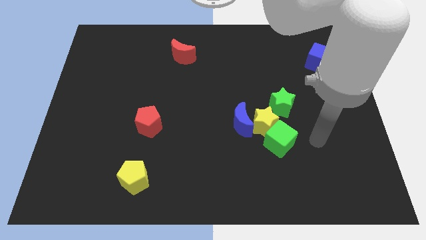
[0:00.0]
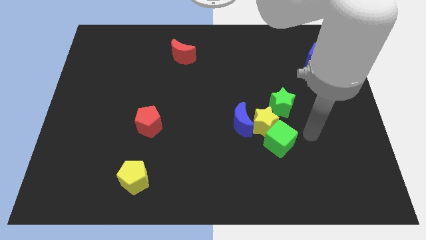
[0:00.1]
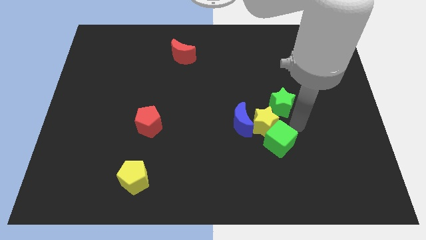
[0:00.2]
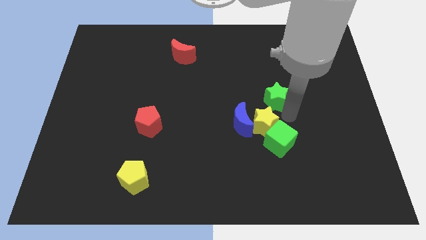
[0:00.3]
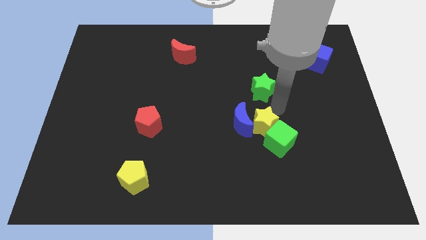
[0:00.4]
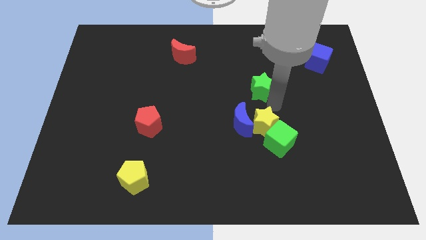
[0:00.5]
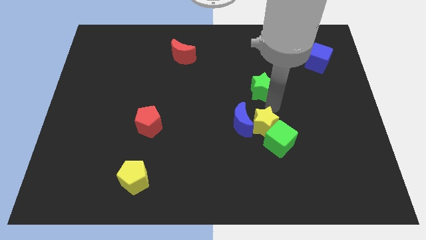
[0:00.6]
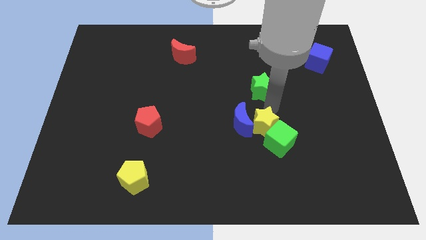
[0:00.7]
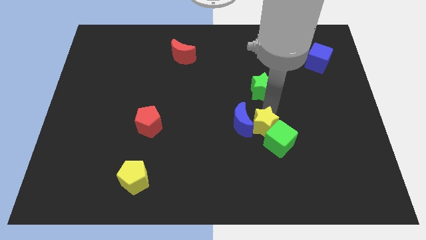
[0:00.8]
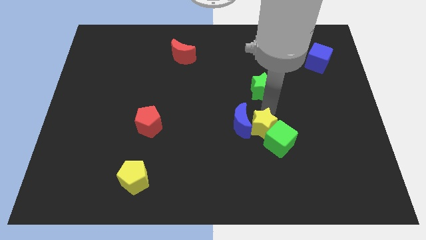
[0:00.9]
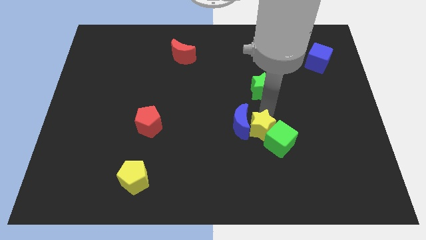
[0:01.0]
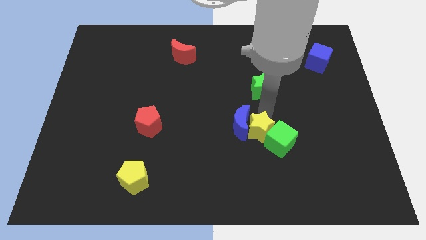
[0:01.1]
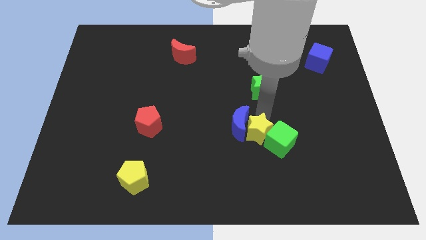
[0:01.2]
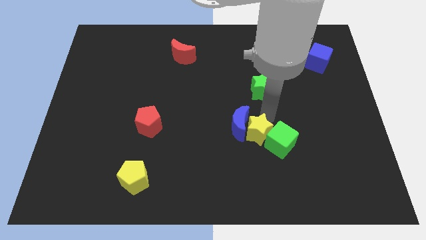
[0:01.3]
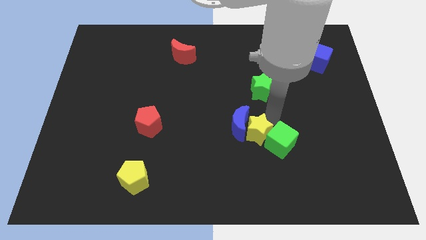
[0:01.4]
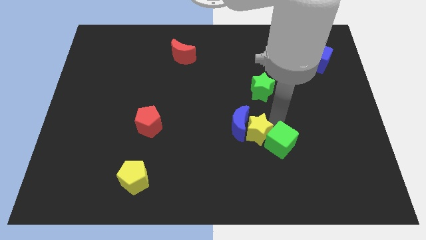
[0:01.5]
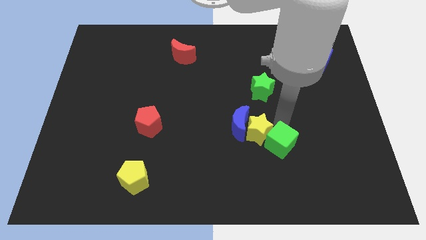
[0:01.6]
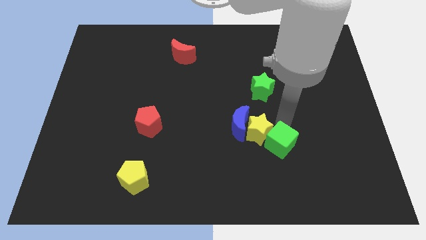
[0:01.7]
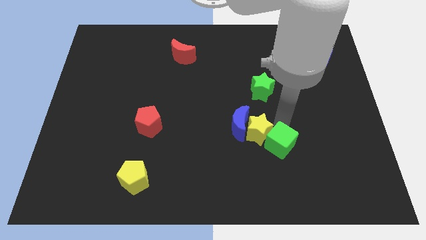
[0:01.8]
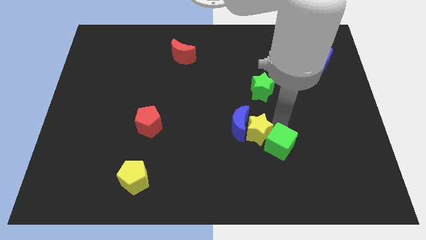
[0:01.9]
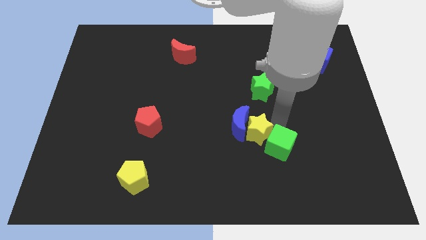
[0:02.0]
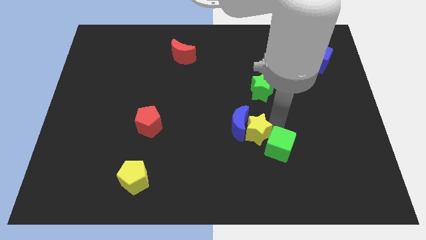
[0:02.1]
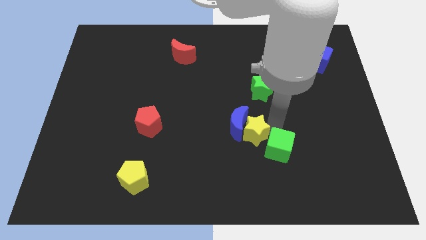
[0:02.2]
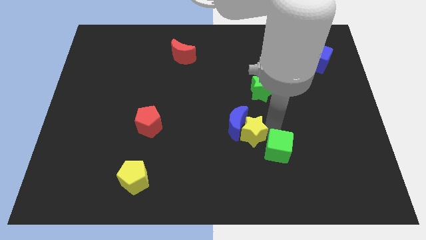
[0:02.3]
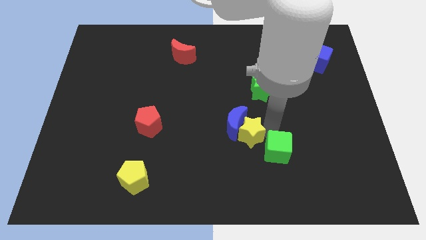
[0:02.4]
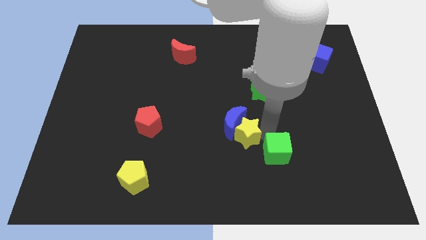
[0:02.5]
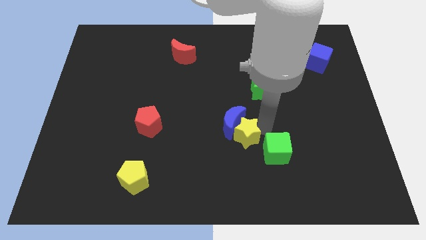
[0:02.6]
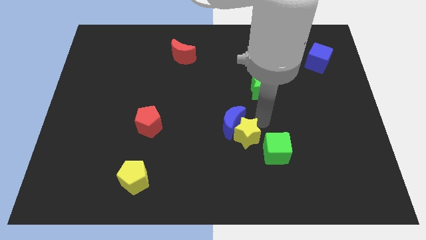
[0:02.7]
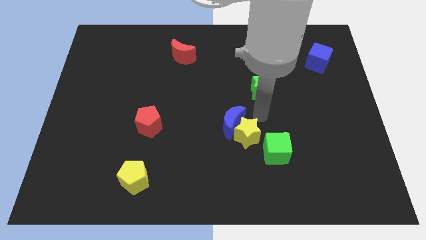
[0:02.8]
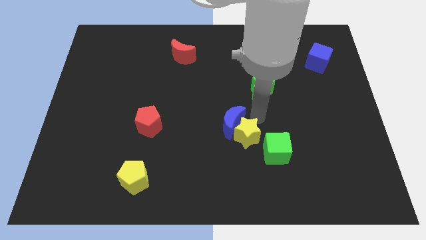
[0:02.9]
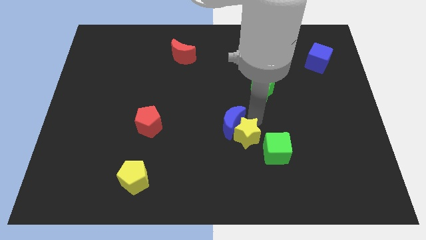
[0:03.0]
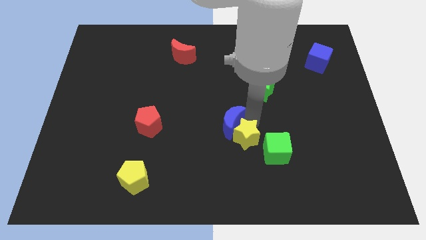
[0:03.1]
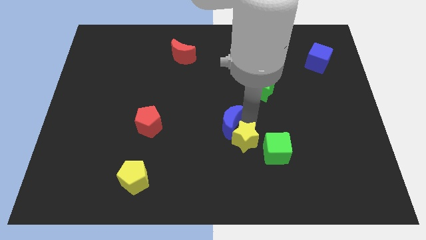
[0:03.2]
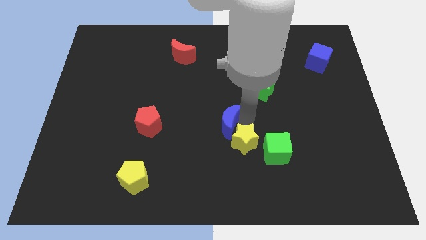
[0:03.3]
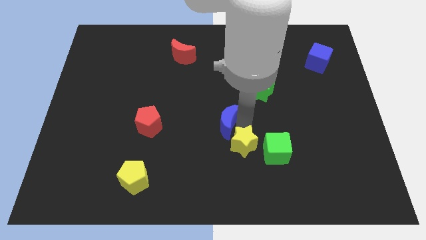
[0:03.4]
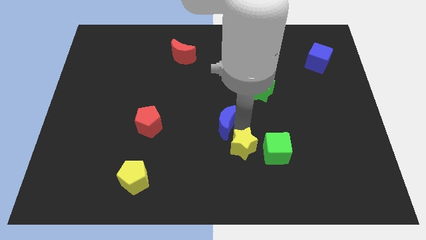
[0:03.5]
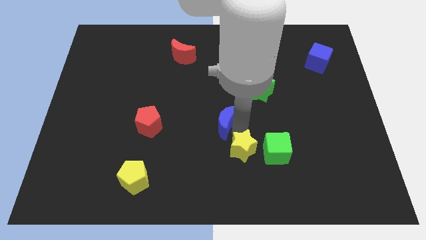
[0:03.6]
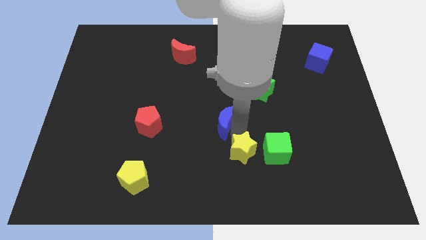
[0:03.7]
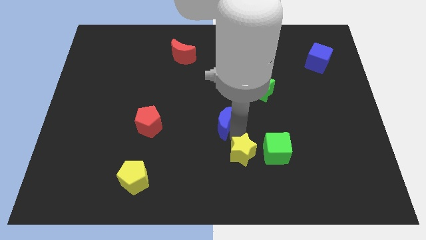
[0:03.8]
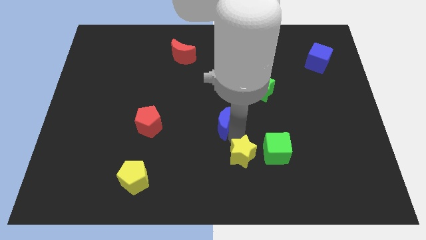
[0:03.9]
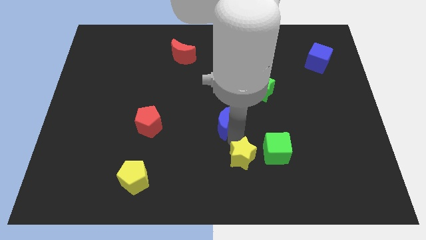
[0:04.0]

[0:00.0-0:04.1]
separate the yellow star from the blue moon, green cube, and green star

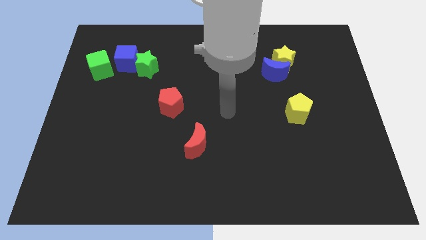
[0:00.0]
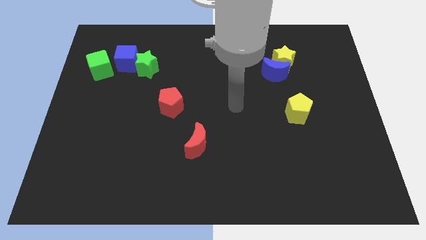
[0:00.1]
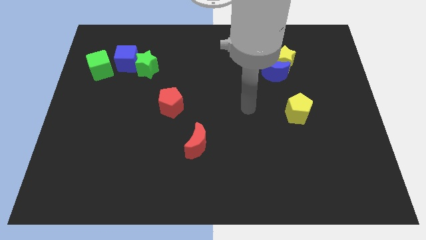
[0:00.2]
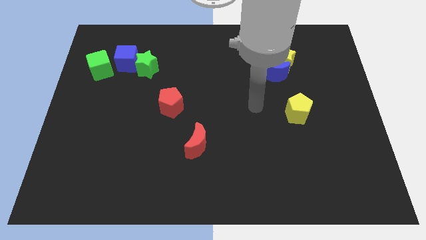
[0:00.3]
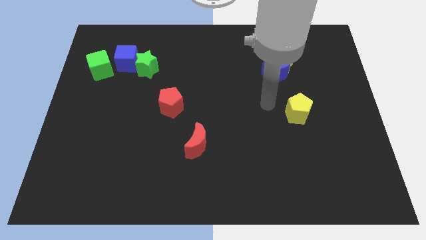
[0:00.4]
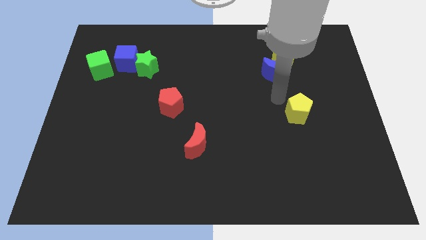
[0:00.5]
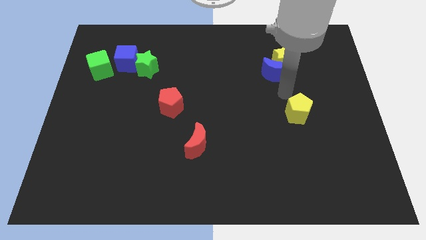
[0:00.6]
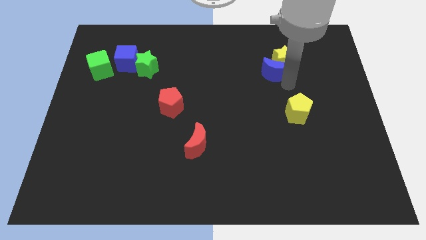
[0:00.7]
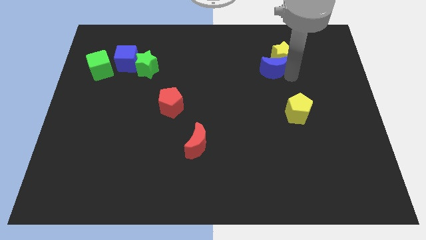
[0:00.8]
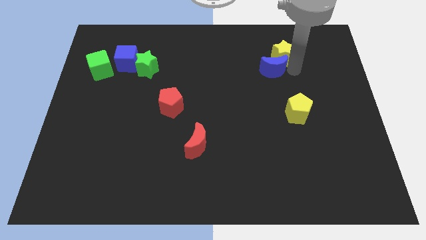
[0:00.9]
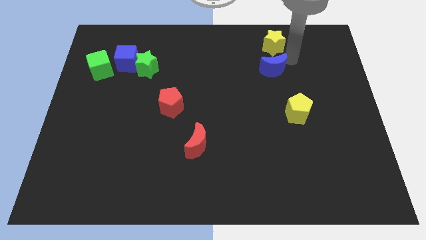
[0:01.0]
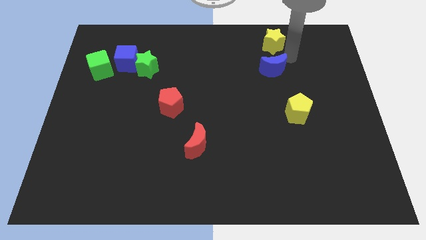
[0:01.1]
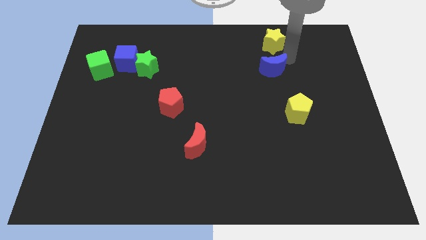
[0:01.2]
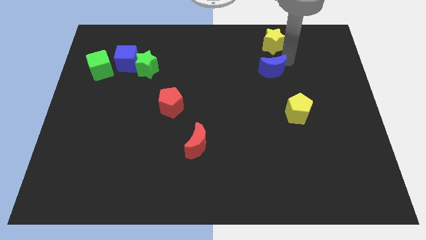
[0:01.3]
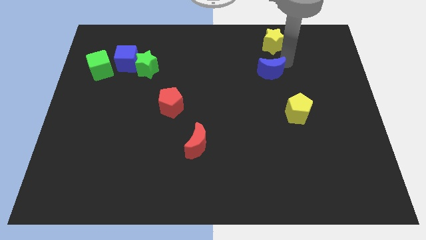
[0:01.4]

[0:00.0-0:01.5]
move the blue moon away from the yellow star

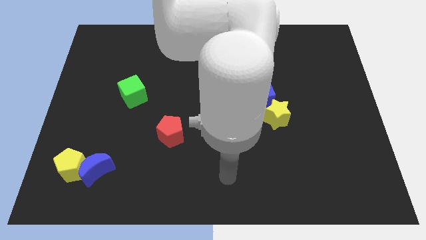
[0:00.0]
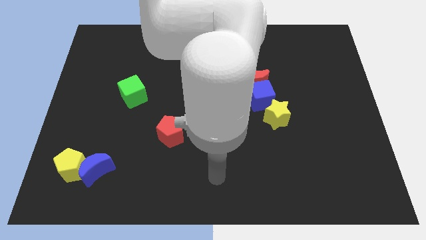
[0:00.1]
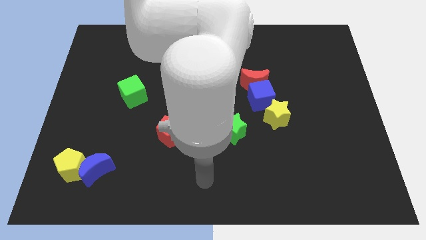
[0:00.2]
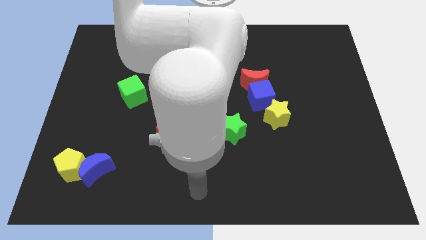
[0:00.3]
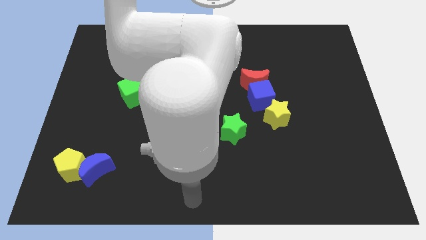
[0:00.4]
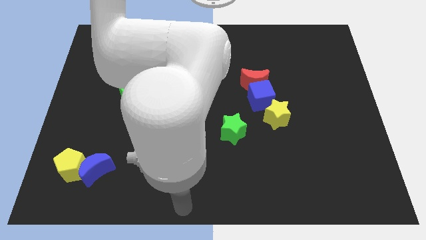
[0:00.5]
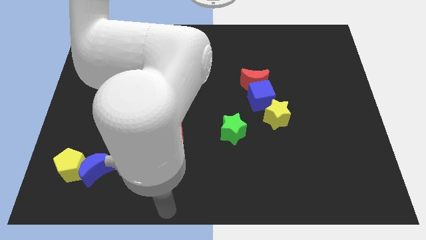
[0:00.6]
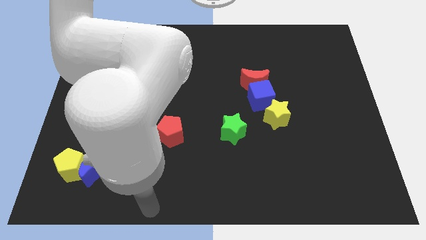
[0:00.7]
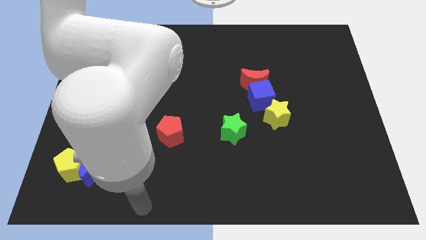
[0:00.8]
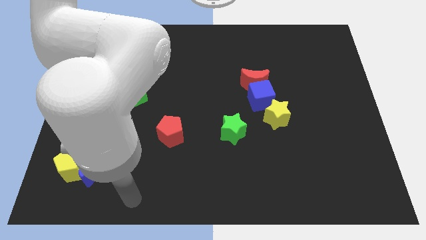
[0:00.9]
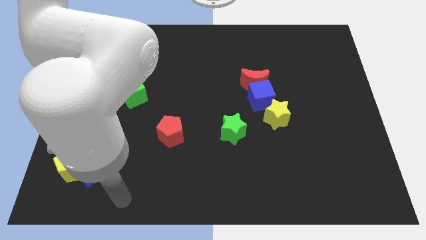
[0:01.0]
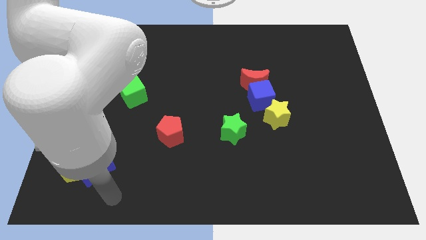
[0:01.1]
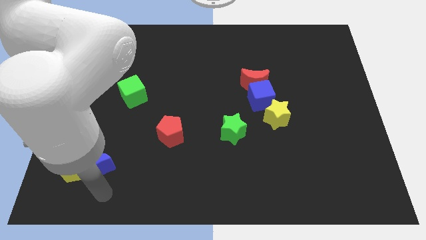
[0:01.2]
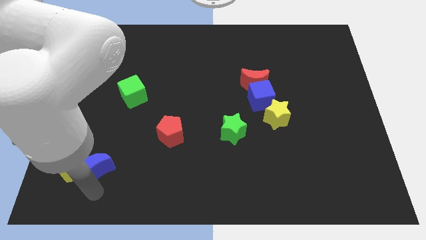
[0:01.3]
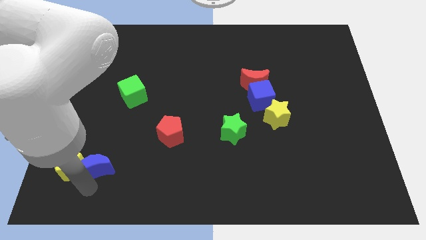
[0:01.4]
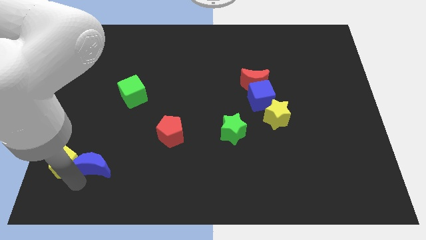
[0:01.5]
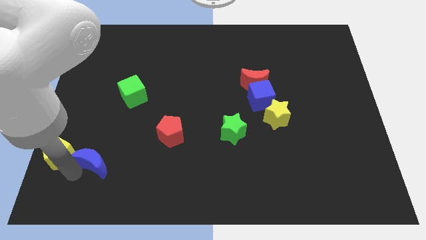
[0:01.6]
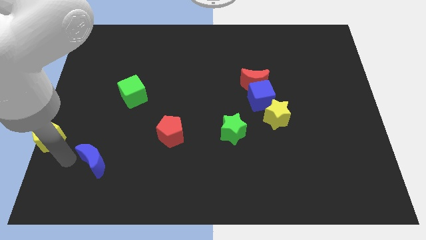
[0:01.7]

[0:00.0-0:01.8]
move the blue moon away from the yellow pentagon

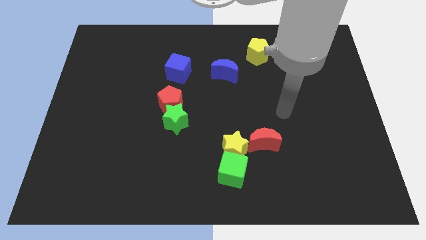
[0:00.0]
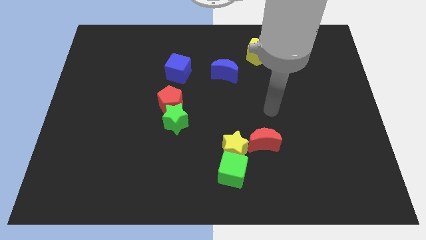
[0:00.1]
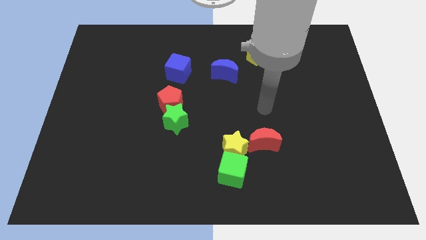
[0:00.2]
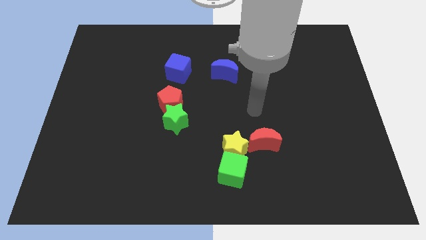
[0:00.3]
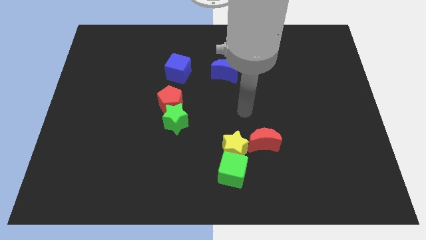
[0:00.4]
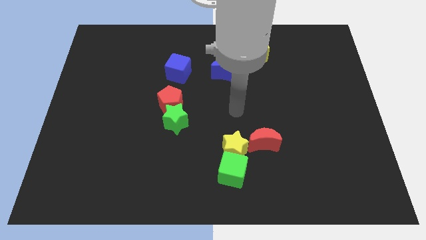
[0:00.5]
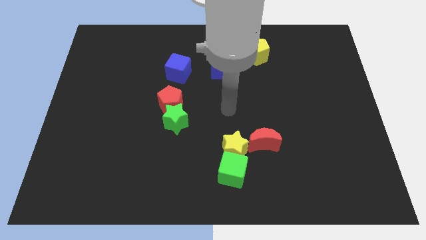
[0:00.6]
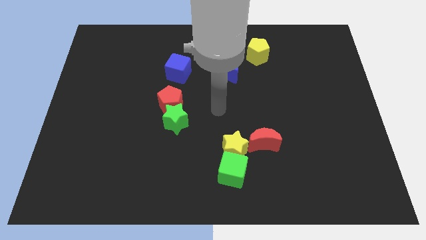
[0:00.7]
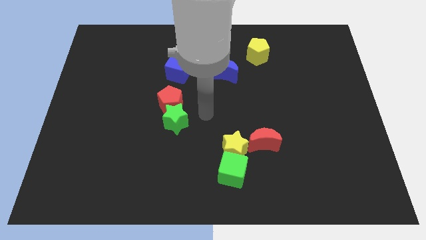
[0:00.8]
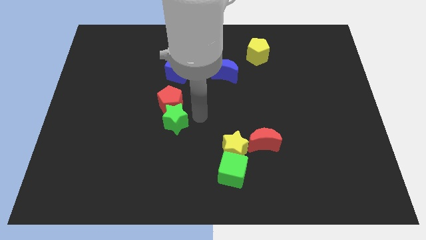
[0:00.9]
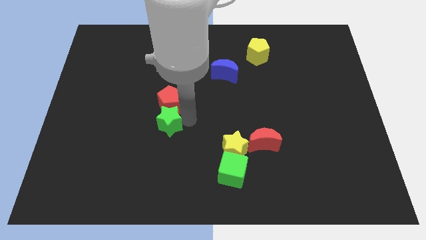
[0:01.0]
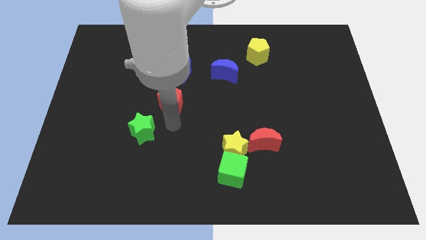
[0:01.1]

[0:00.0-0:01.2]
pull the red pentagon apart from the green star

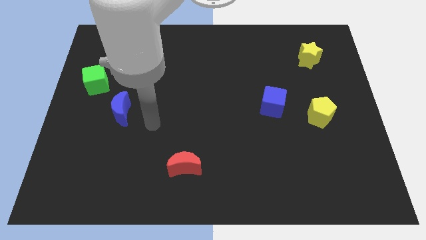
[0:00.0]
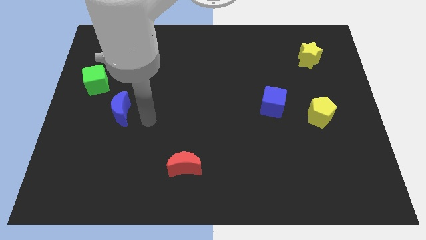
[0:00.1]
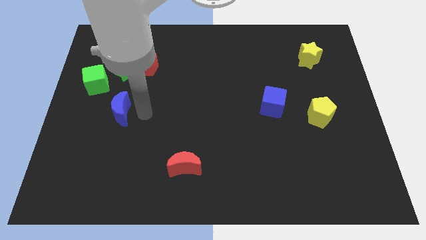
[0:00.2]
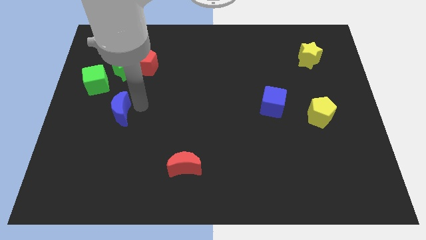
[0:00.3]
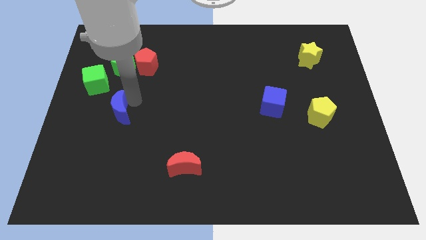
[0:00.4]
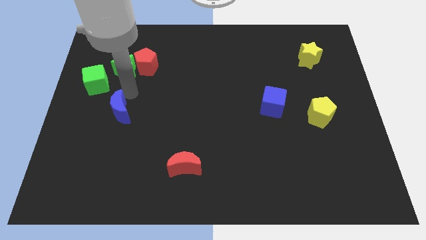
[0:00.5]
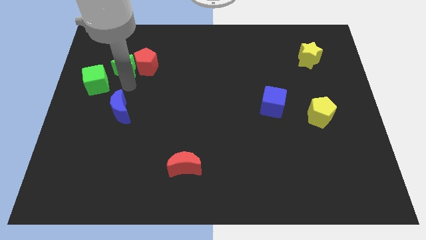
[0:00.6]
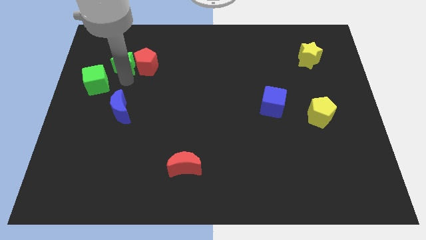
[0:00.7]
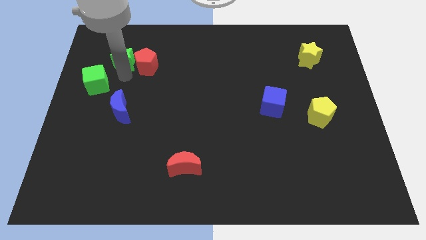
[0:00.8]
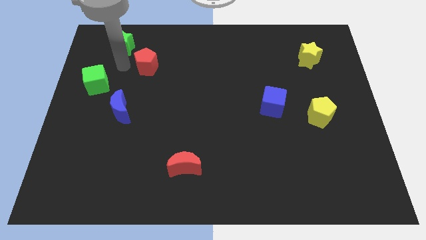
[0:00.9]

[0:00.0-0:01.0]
separate the red pentagon from the green star
